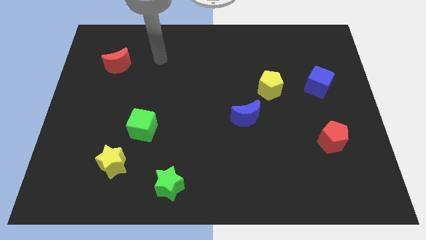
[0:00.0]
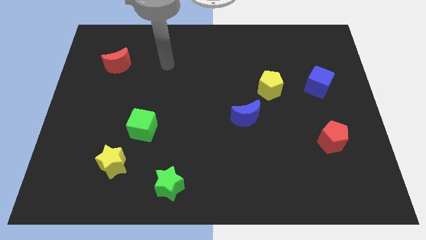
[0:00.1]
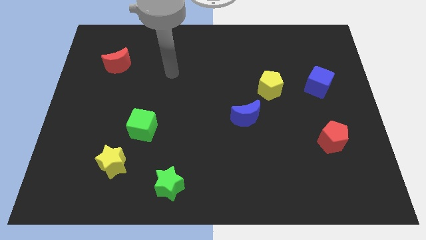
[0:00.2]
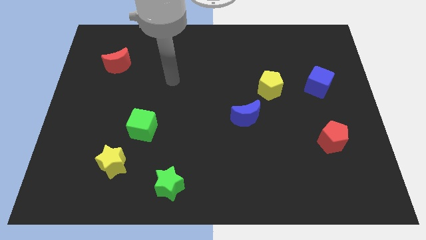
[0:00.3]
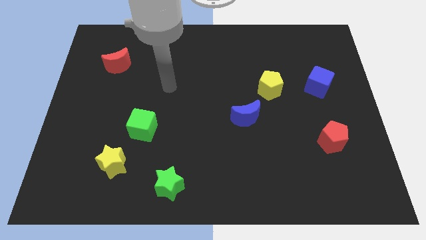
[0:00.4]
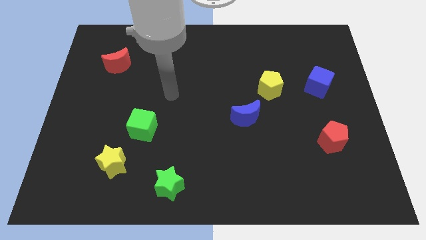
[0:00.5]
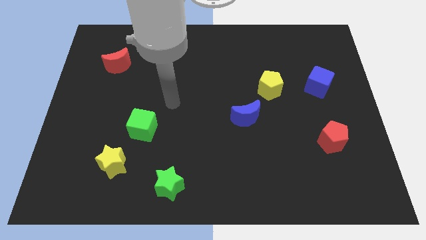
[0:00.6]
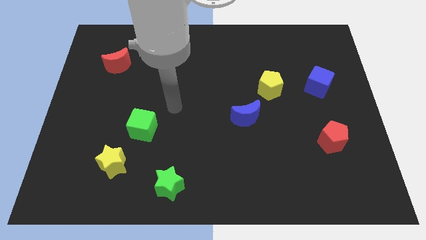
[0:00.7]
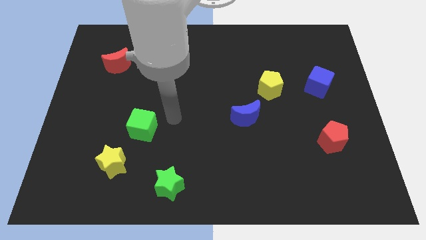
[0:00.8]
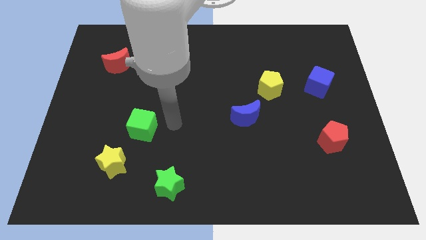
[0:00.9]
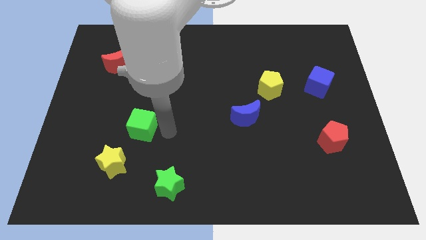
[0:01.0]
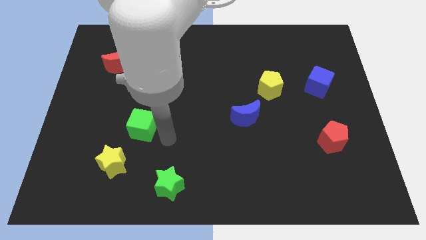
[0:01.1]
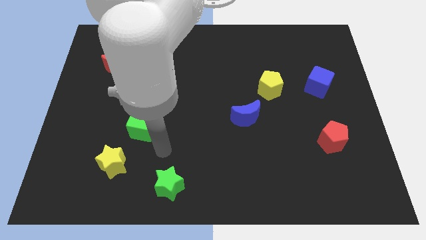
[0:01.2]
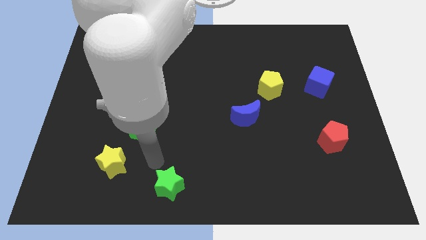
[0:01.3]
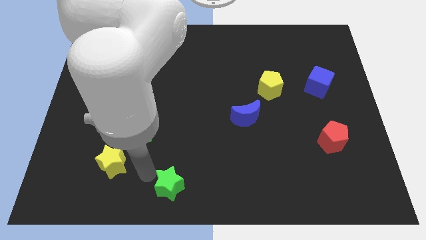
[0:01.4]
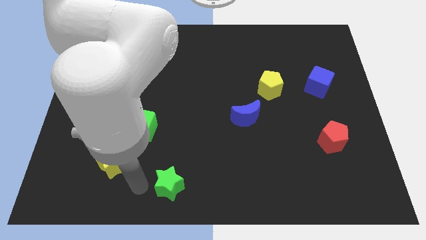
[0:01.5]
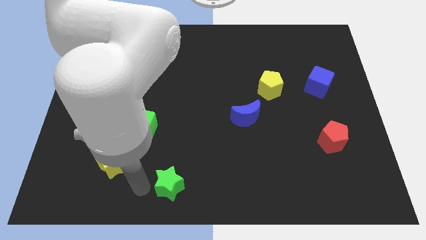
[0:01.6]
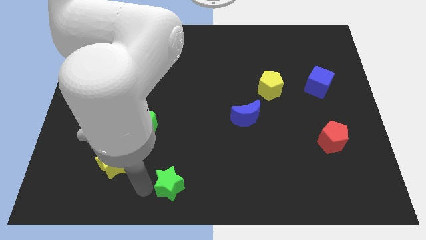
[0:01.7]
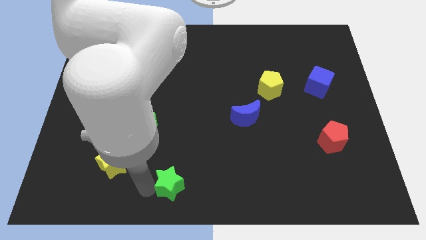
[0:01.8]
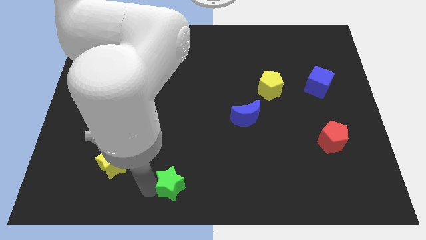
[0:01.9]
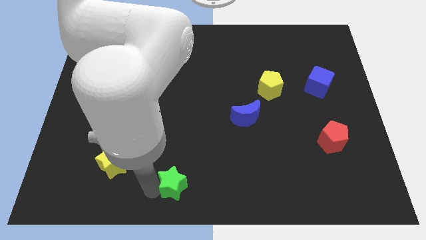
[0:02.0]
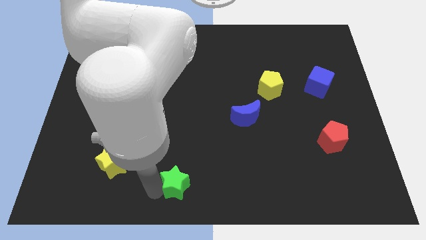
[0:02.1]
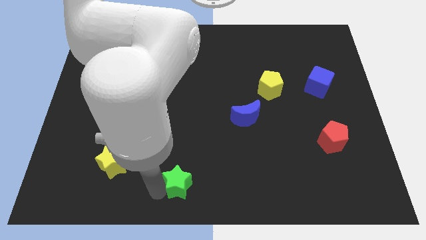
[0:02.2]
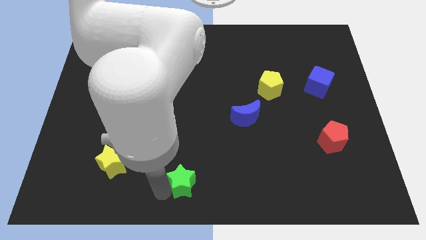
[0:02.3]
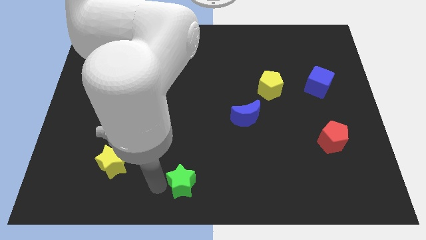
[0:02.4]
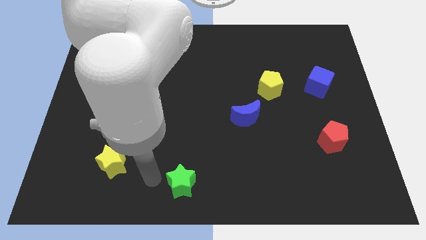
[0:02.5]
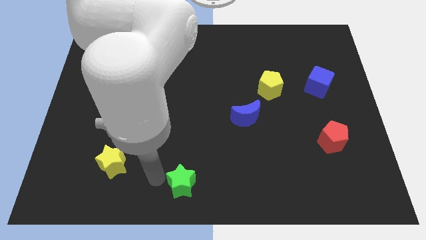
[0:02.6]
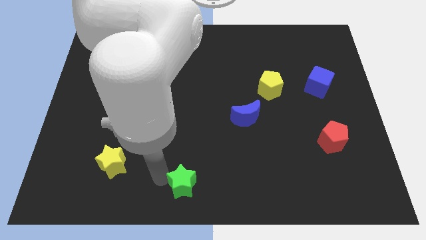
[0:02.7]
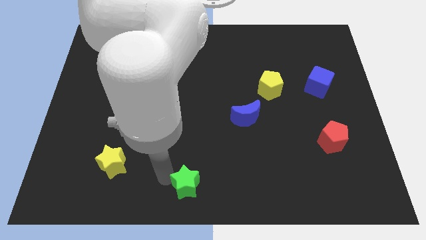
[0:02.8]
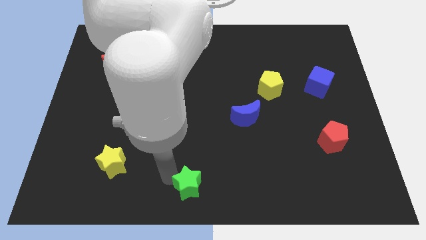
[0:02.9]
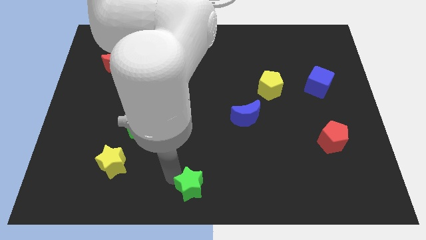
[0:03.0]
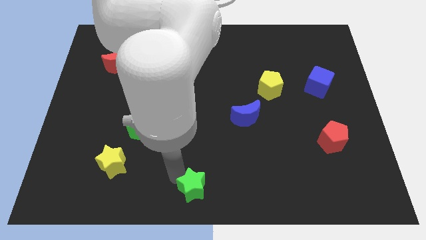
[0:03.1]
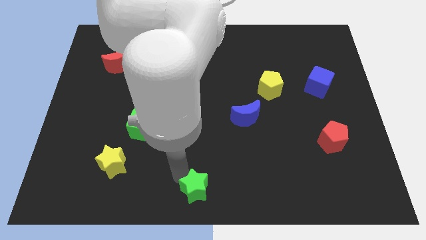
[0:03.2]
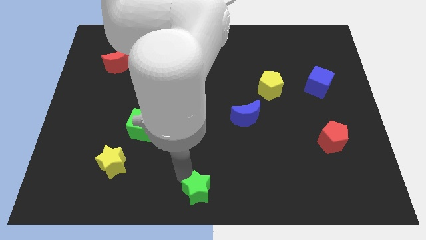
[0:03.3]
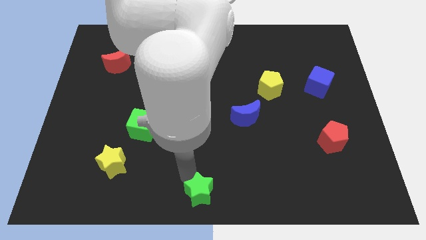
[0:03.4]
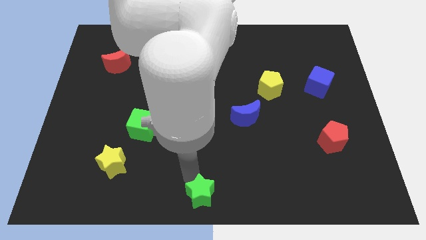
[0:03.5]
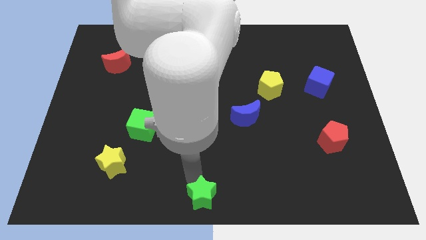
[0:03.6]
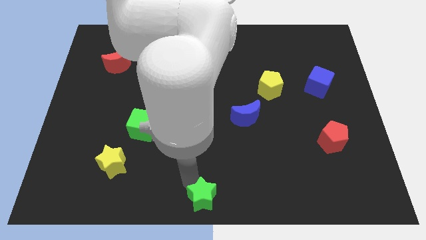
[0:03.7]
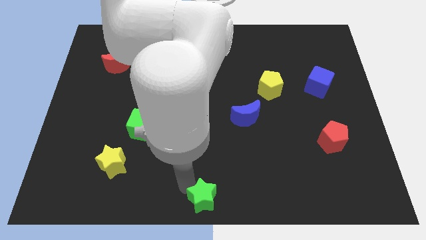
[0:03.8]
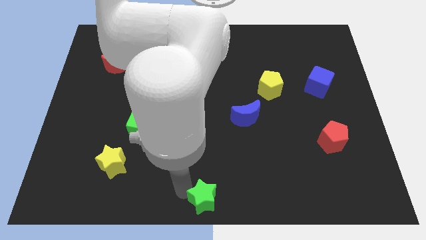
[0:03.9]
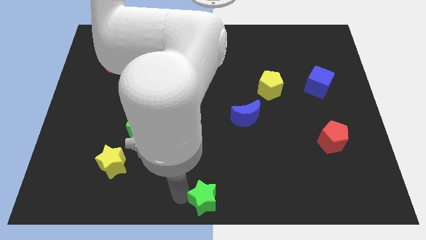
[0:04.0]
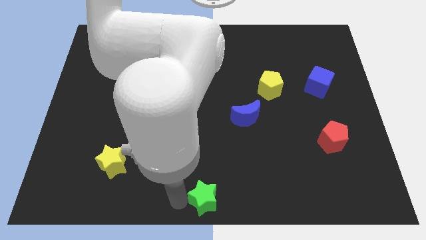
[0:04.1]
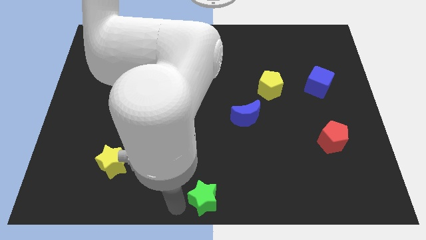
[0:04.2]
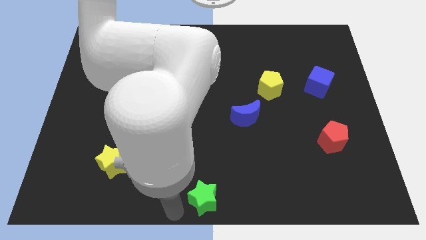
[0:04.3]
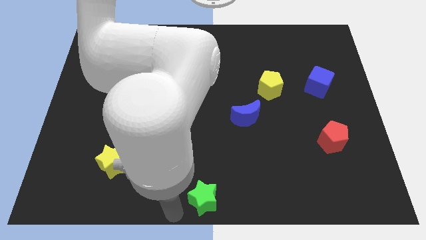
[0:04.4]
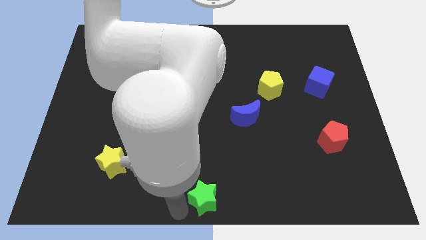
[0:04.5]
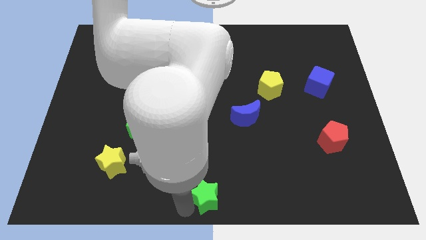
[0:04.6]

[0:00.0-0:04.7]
slide the green star somewhat right

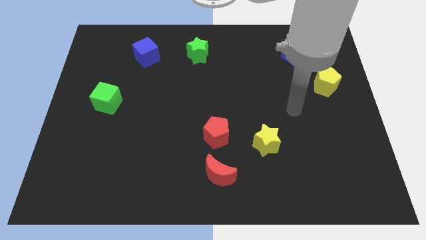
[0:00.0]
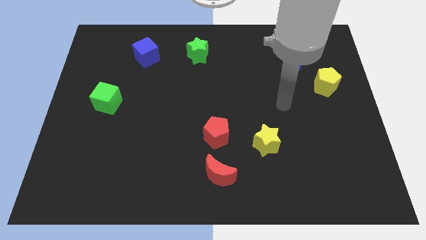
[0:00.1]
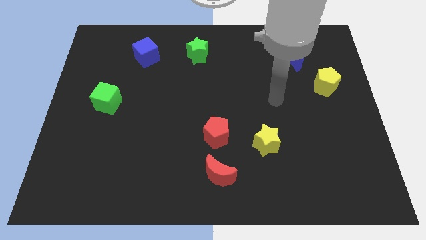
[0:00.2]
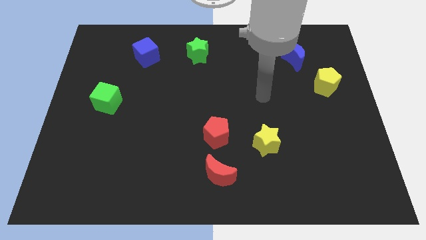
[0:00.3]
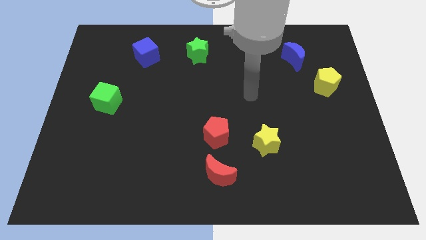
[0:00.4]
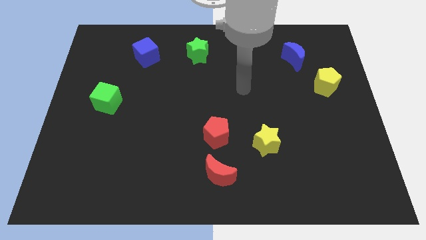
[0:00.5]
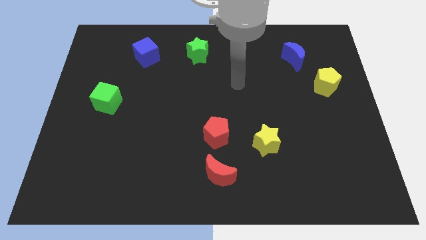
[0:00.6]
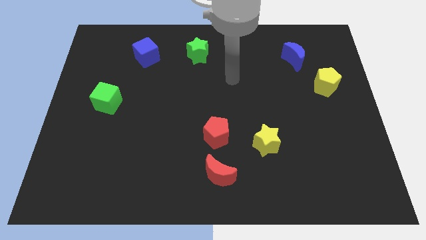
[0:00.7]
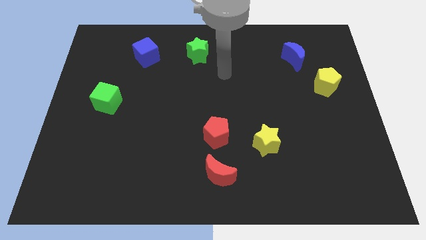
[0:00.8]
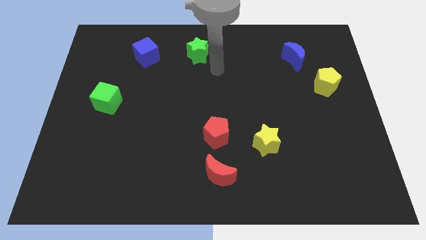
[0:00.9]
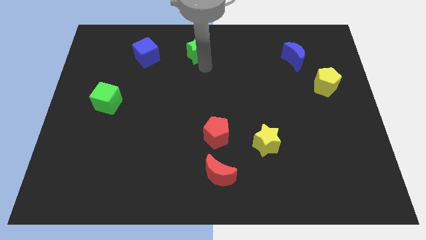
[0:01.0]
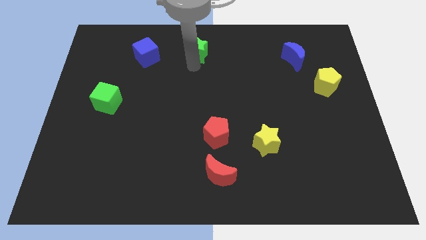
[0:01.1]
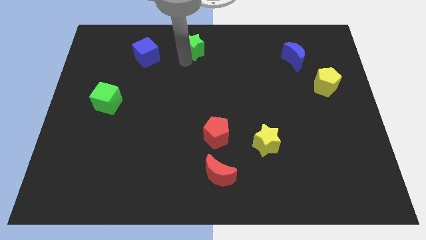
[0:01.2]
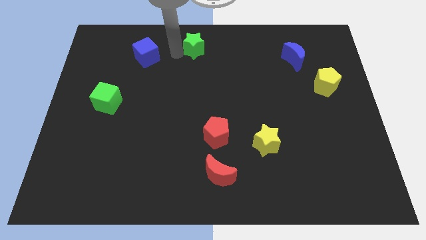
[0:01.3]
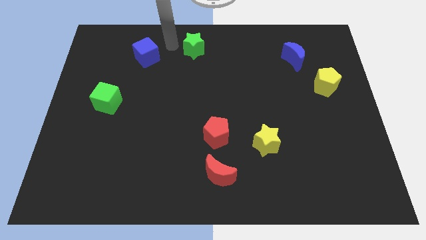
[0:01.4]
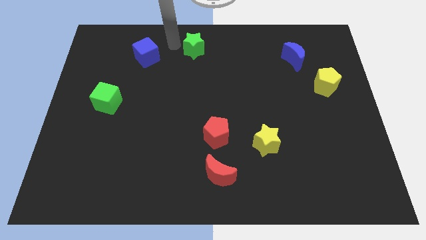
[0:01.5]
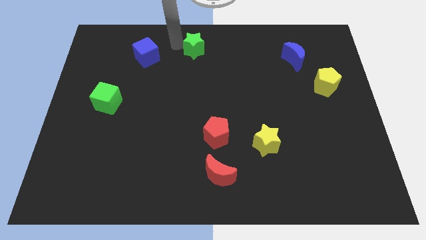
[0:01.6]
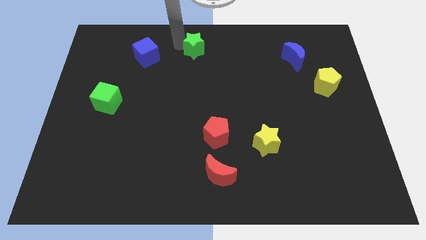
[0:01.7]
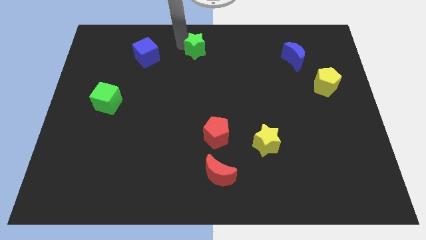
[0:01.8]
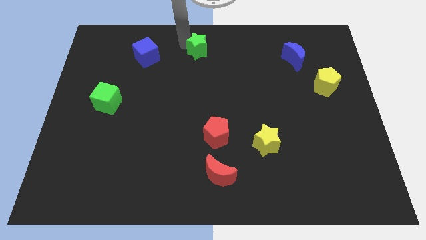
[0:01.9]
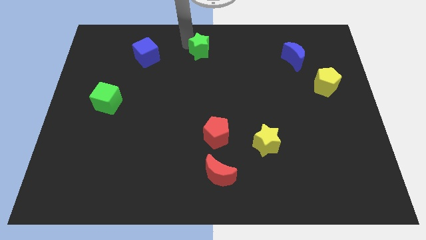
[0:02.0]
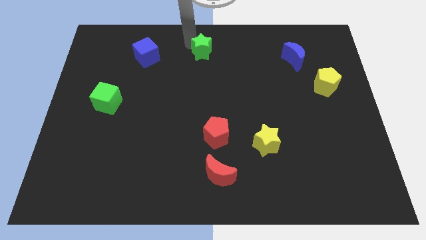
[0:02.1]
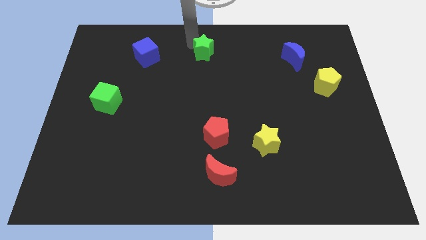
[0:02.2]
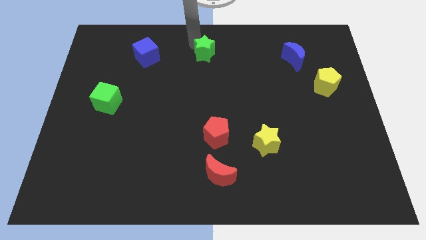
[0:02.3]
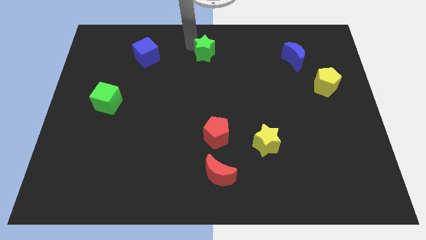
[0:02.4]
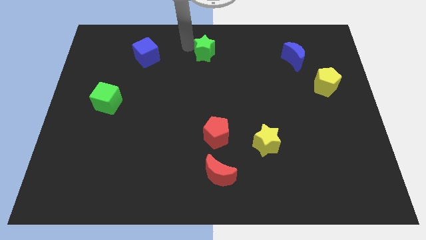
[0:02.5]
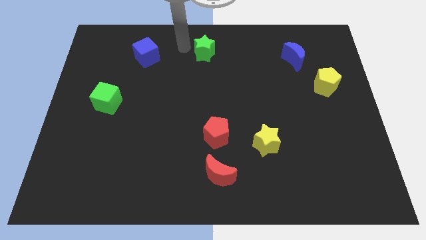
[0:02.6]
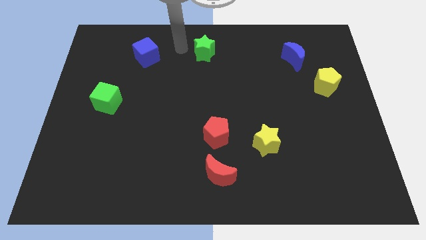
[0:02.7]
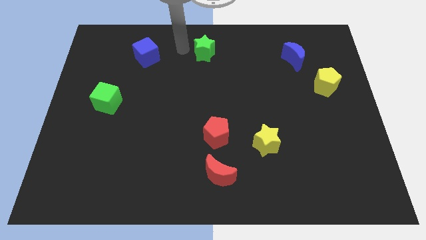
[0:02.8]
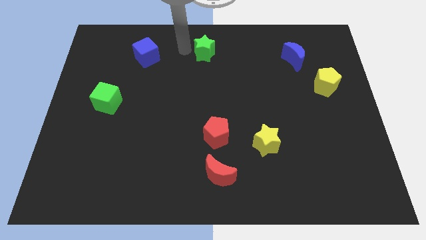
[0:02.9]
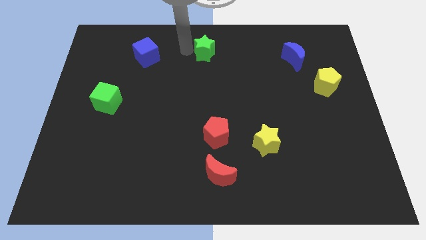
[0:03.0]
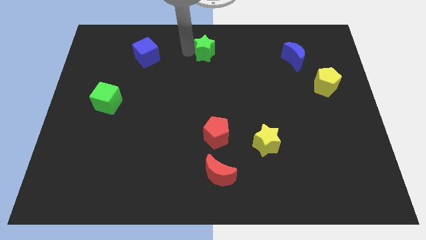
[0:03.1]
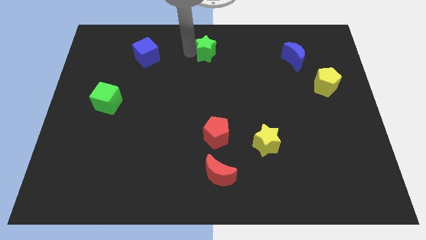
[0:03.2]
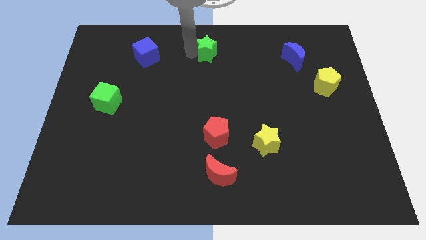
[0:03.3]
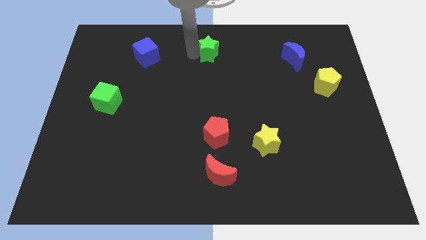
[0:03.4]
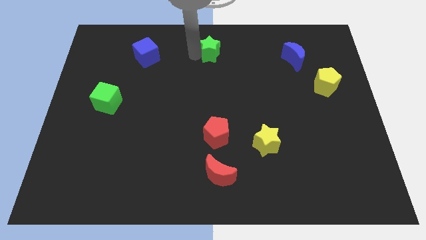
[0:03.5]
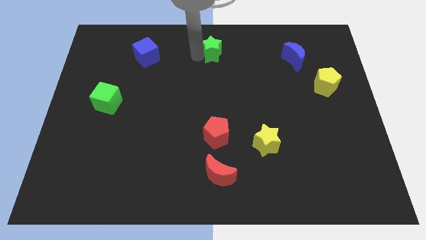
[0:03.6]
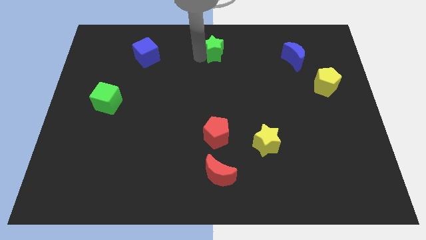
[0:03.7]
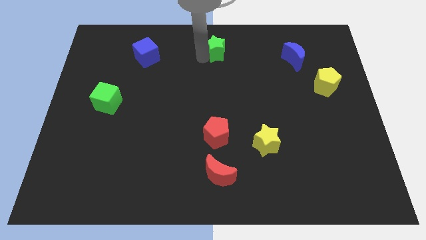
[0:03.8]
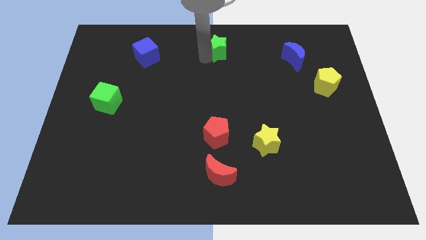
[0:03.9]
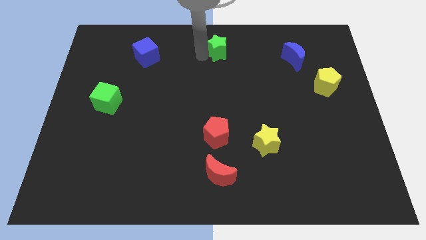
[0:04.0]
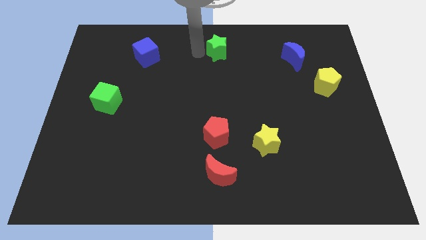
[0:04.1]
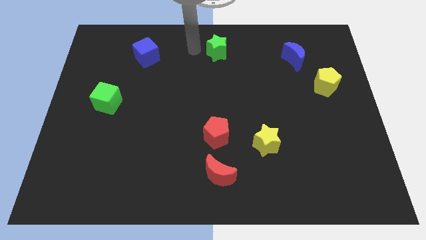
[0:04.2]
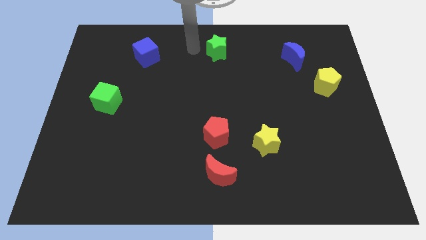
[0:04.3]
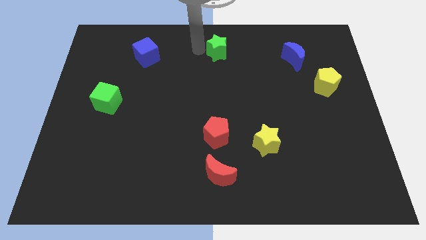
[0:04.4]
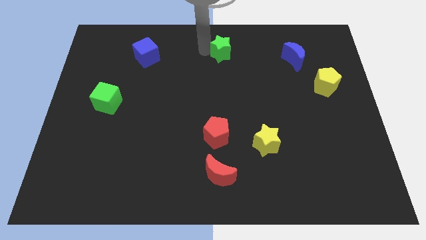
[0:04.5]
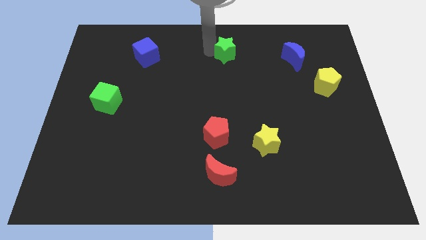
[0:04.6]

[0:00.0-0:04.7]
push the green star a bit to the right
